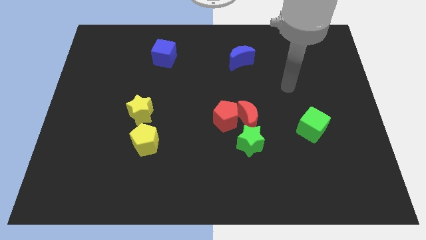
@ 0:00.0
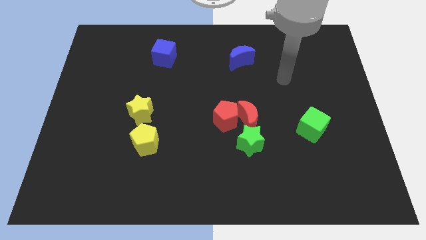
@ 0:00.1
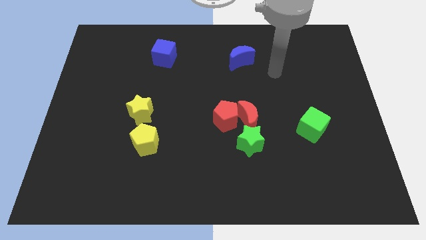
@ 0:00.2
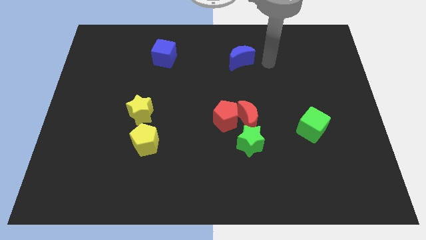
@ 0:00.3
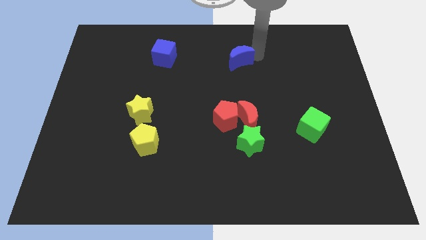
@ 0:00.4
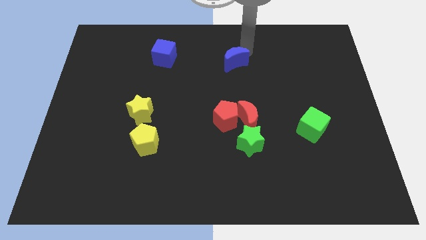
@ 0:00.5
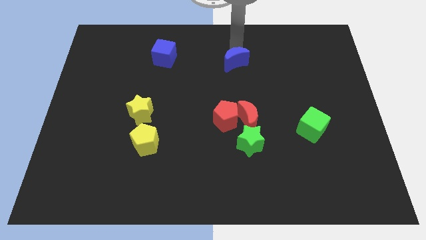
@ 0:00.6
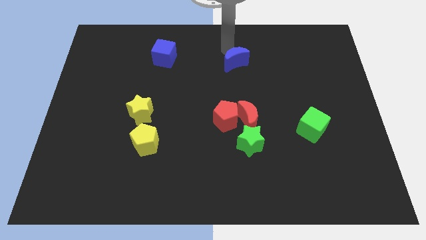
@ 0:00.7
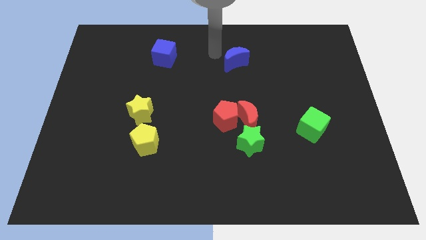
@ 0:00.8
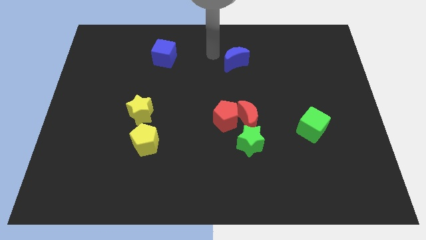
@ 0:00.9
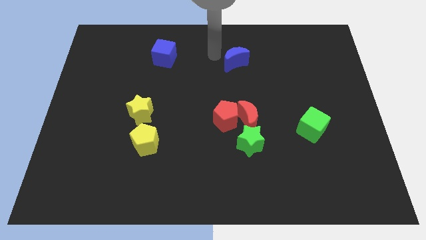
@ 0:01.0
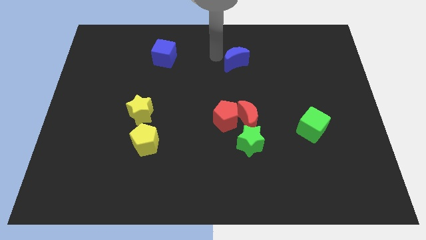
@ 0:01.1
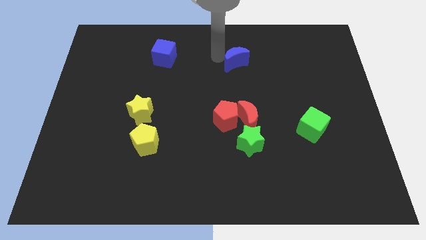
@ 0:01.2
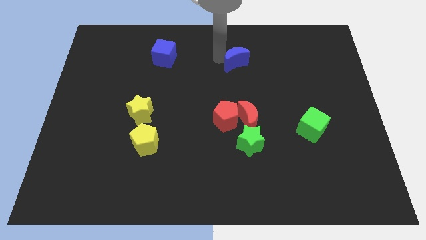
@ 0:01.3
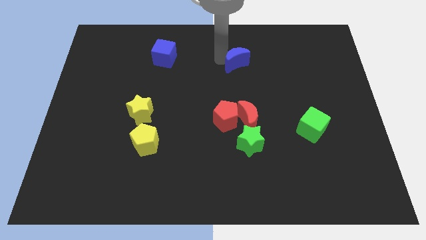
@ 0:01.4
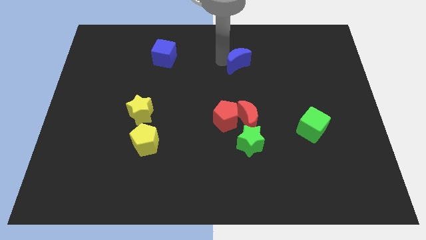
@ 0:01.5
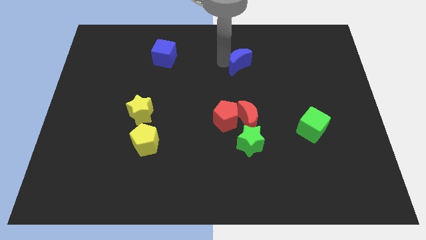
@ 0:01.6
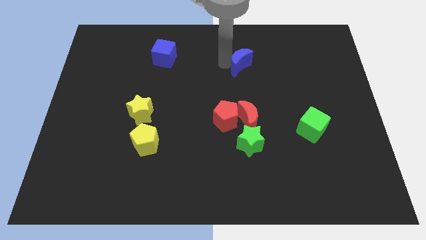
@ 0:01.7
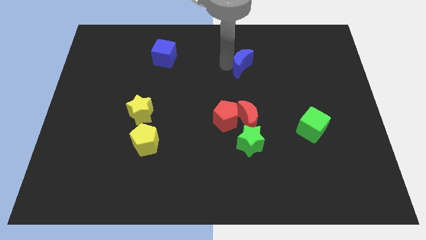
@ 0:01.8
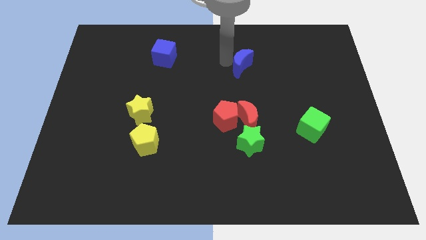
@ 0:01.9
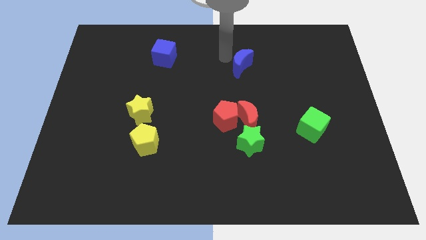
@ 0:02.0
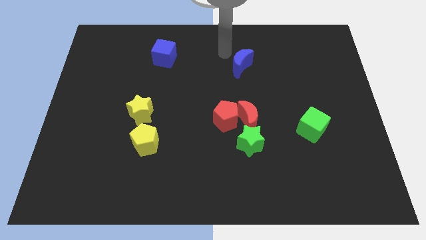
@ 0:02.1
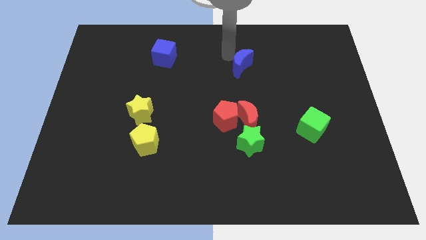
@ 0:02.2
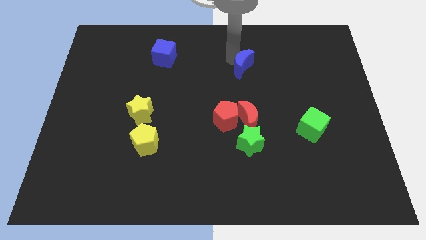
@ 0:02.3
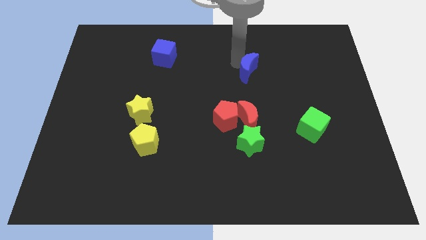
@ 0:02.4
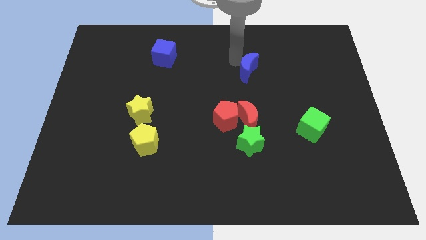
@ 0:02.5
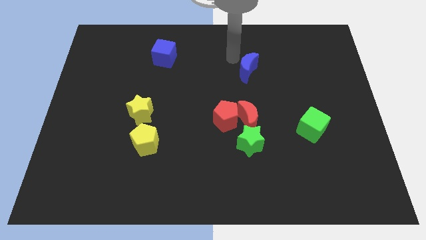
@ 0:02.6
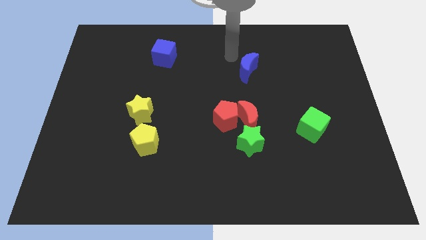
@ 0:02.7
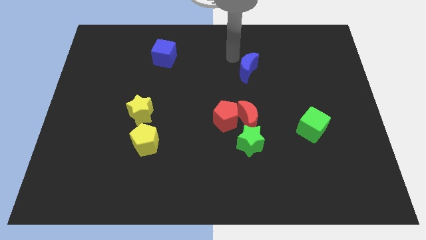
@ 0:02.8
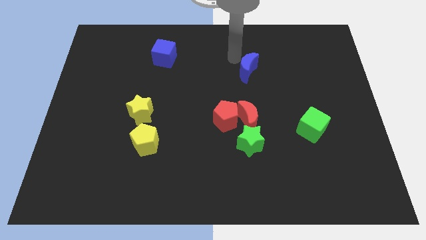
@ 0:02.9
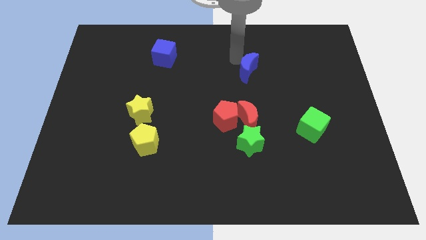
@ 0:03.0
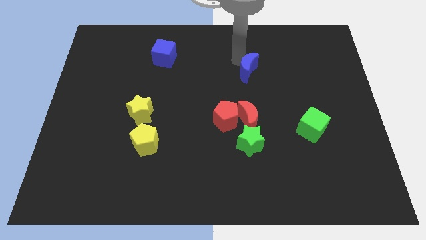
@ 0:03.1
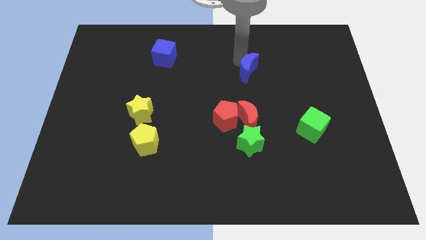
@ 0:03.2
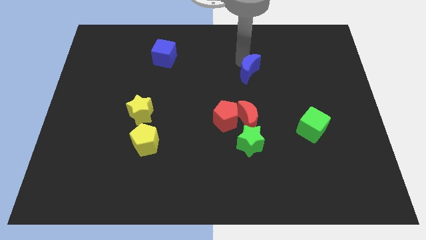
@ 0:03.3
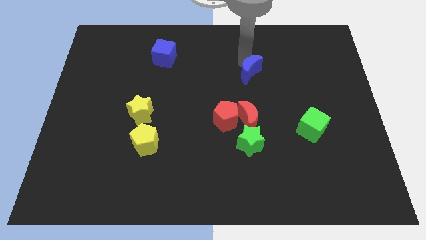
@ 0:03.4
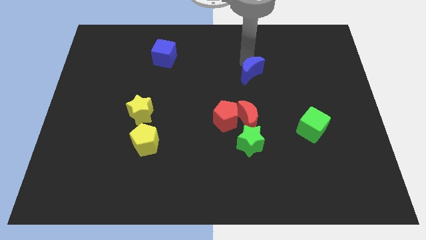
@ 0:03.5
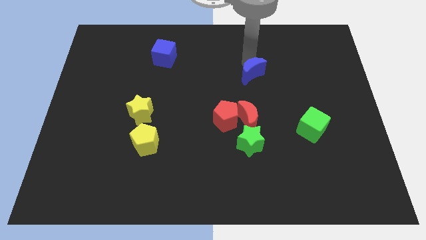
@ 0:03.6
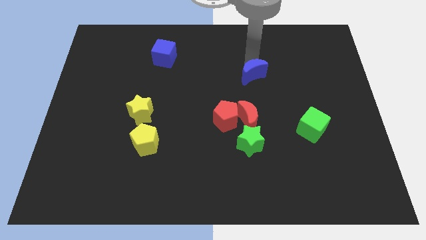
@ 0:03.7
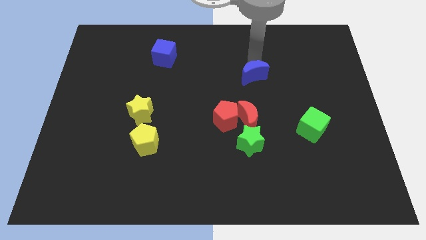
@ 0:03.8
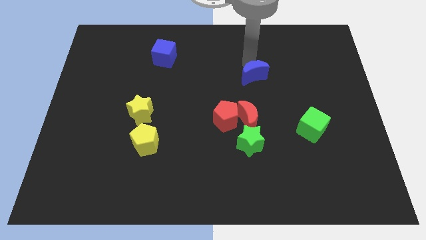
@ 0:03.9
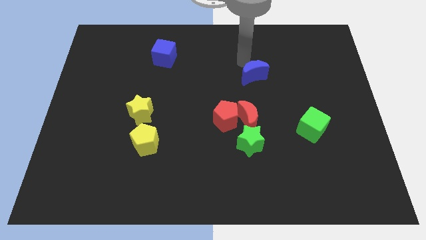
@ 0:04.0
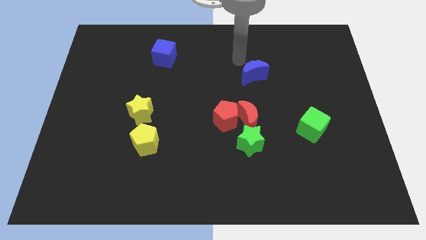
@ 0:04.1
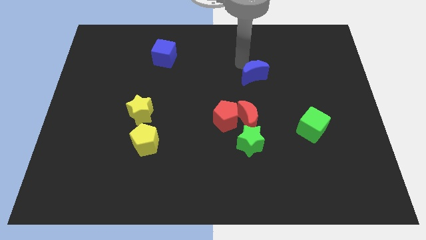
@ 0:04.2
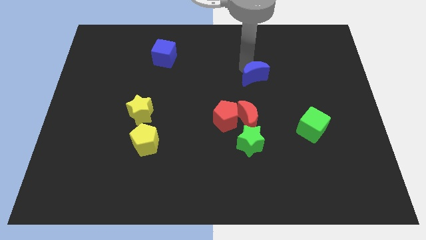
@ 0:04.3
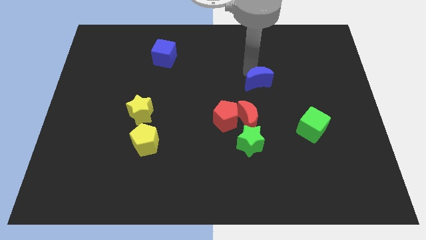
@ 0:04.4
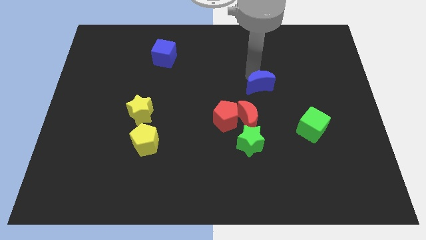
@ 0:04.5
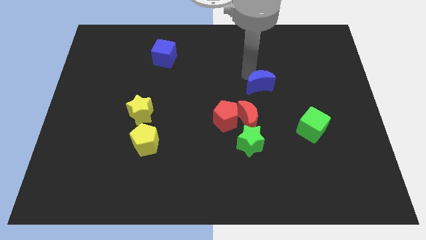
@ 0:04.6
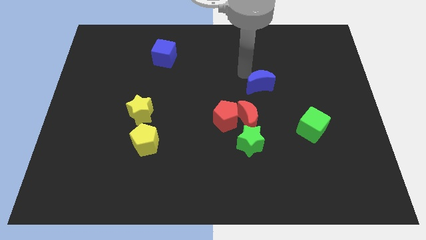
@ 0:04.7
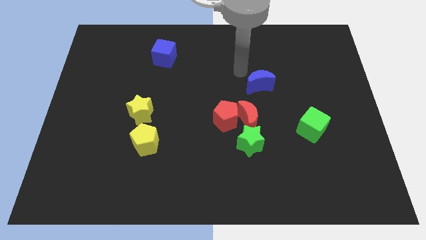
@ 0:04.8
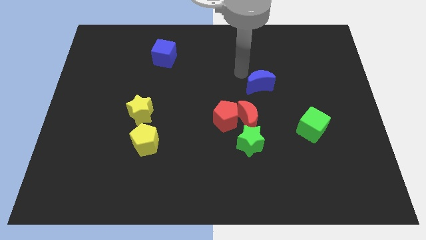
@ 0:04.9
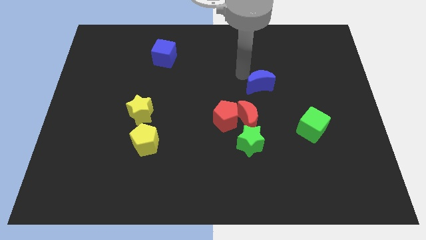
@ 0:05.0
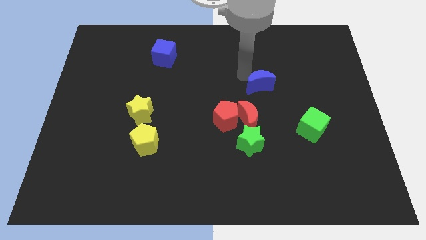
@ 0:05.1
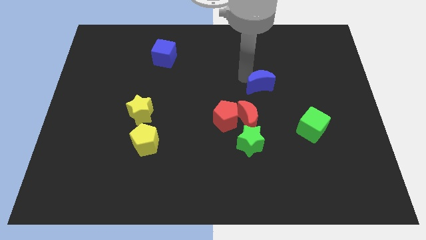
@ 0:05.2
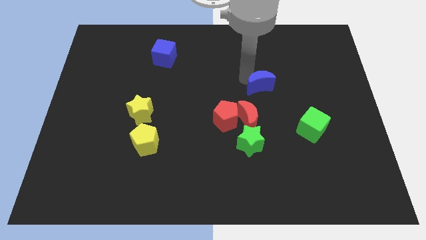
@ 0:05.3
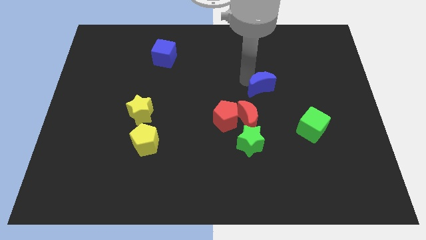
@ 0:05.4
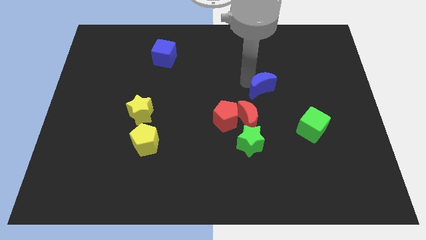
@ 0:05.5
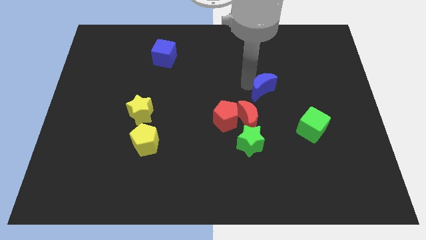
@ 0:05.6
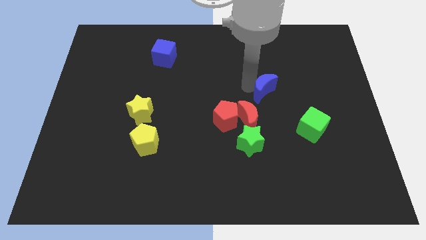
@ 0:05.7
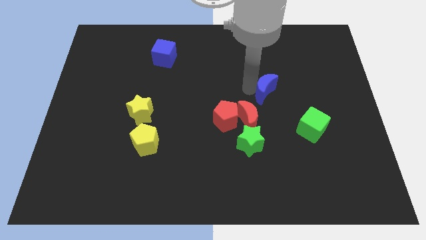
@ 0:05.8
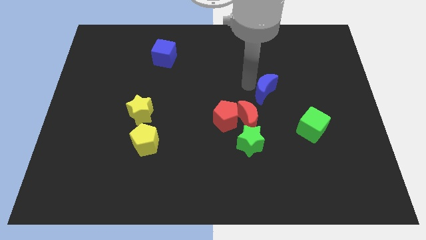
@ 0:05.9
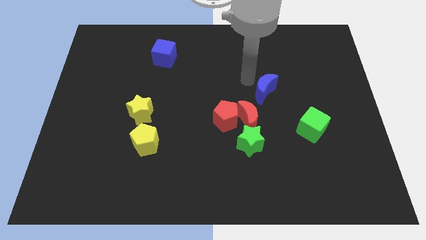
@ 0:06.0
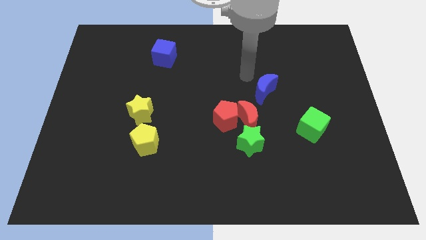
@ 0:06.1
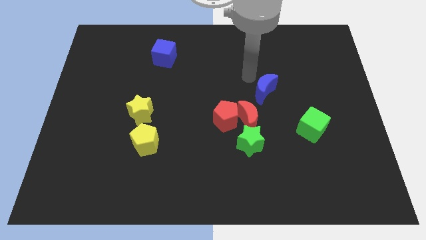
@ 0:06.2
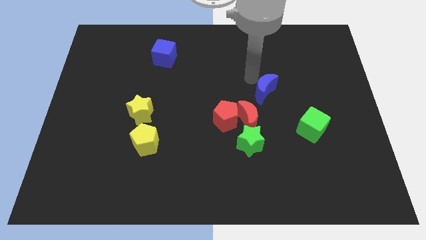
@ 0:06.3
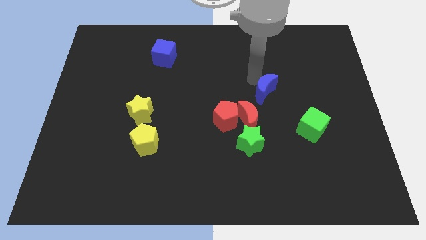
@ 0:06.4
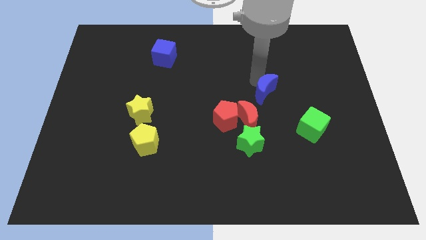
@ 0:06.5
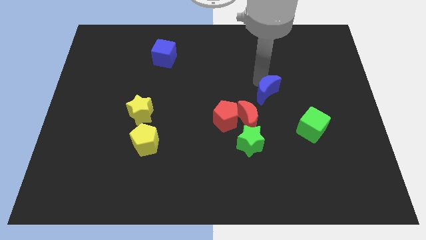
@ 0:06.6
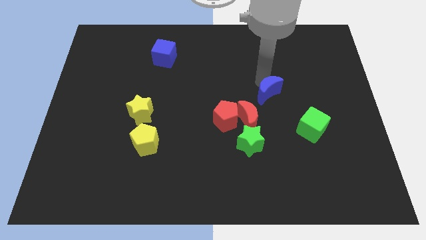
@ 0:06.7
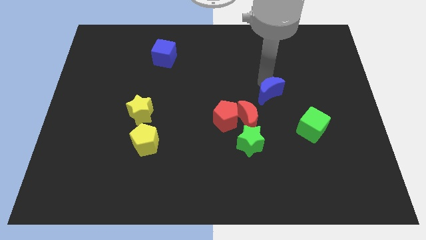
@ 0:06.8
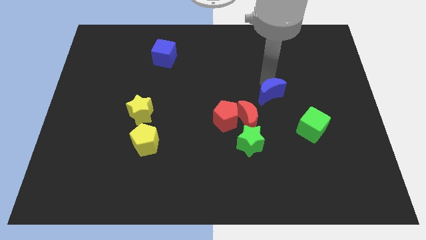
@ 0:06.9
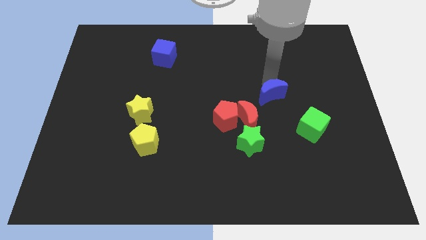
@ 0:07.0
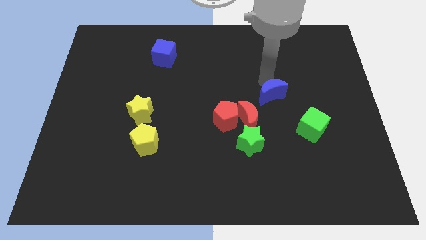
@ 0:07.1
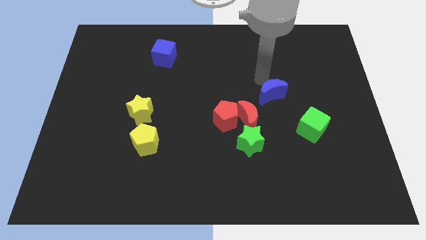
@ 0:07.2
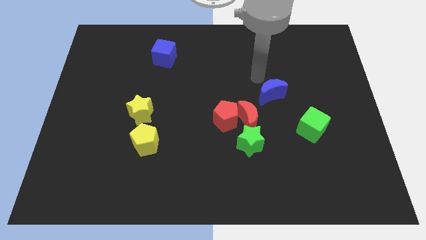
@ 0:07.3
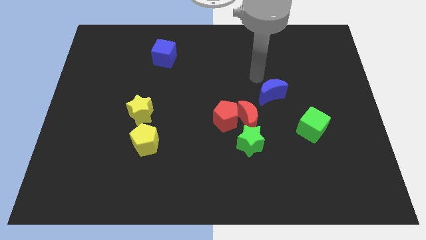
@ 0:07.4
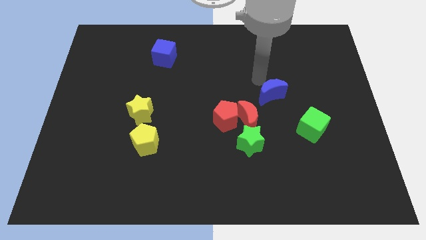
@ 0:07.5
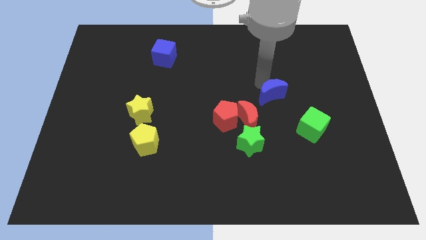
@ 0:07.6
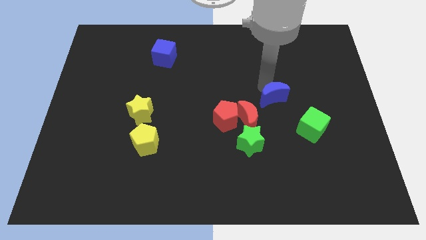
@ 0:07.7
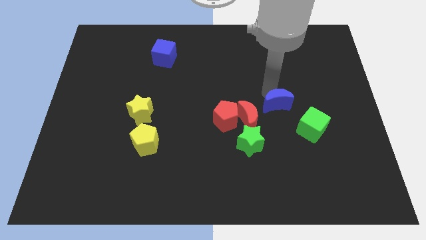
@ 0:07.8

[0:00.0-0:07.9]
move the blue moon to the right of the red moon

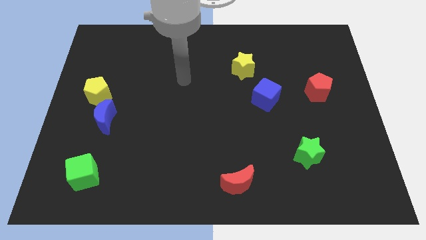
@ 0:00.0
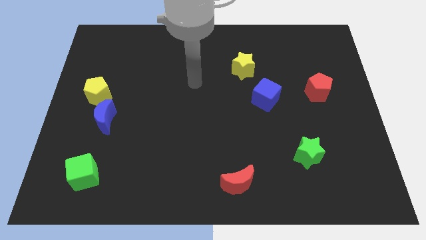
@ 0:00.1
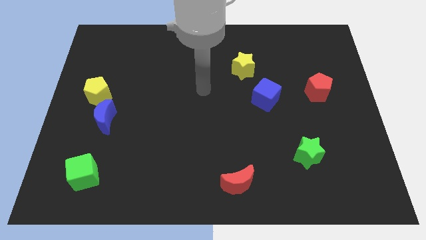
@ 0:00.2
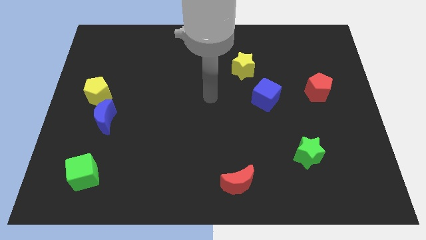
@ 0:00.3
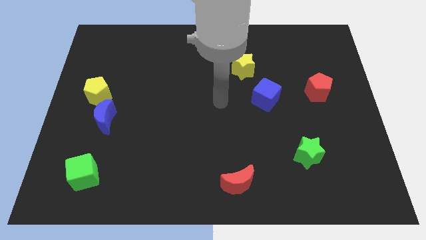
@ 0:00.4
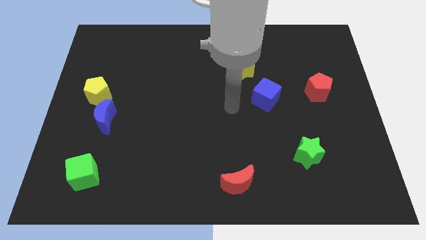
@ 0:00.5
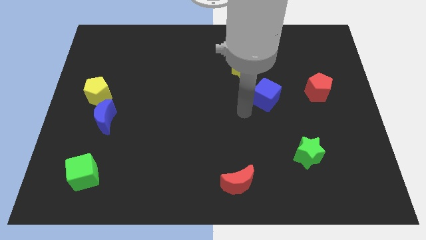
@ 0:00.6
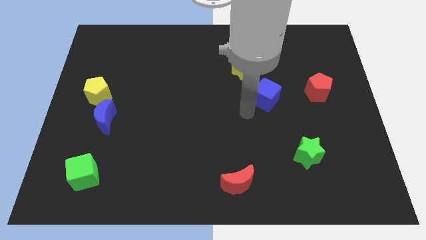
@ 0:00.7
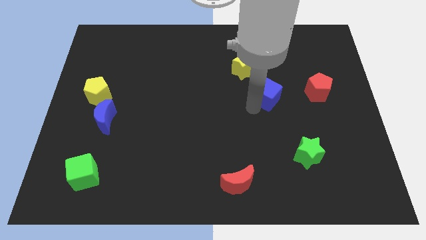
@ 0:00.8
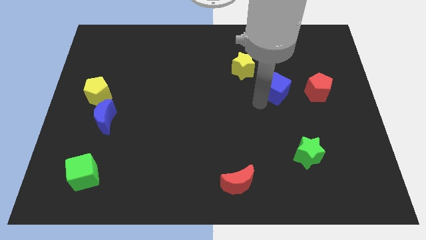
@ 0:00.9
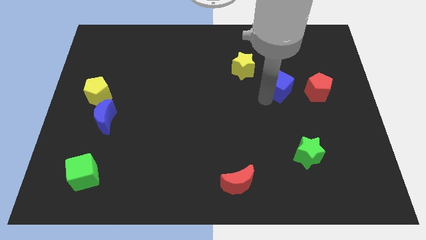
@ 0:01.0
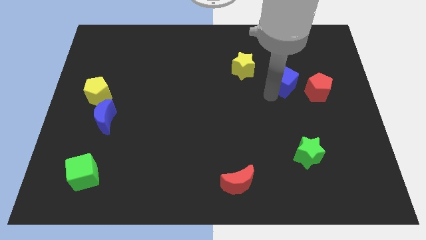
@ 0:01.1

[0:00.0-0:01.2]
put the blue cube to the top left of the red pentagon
